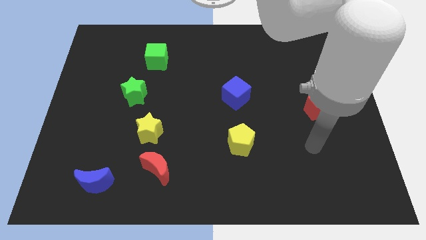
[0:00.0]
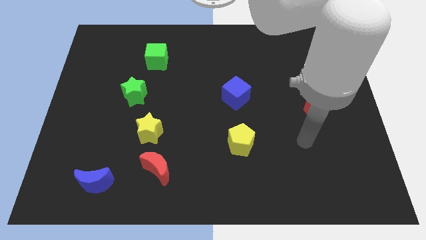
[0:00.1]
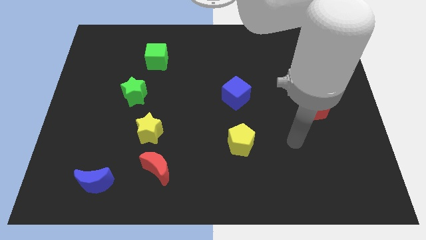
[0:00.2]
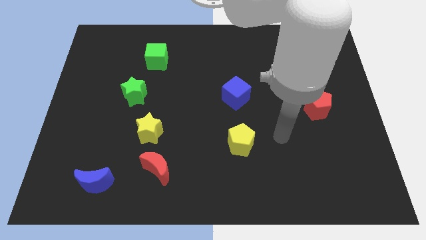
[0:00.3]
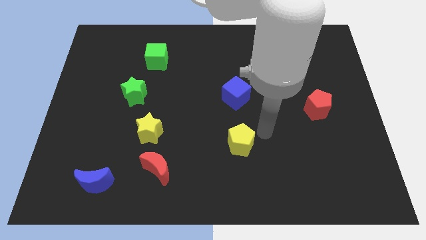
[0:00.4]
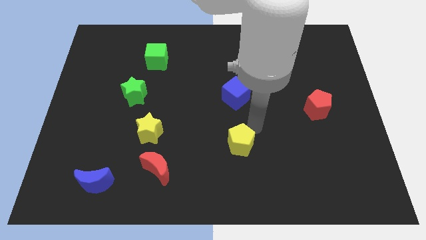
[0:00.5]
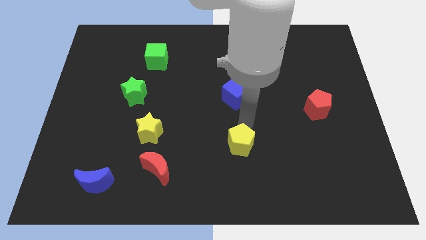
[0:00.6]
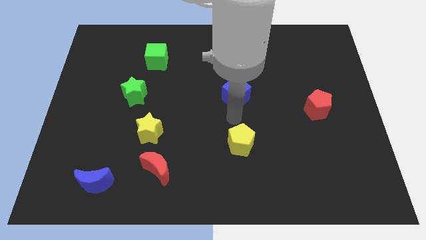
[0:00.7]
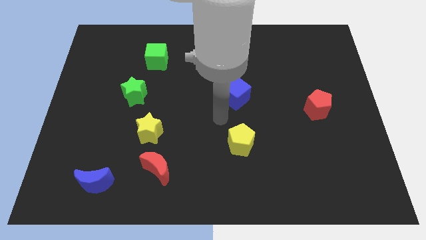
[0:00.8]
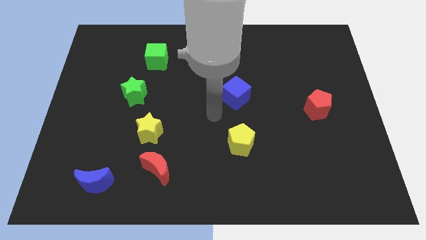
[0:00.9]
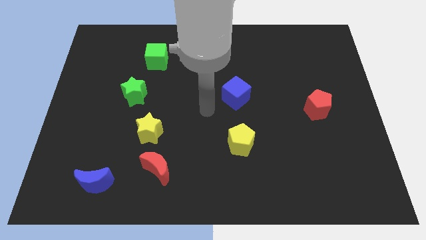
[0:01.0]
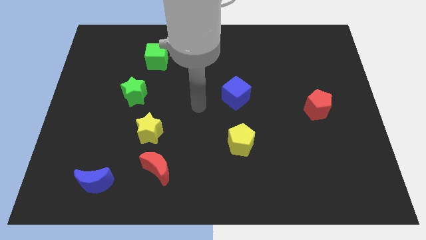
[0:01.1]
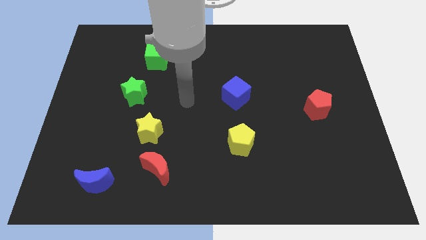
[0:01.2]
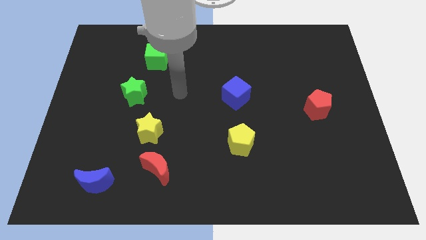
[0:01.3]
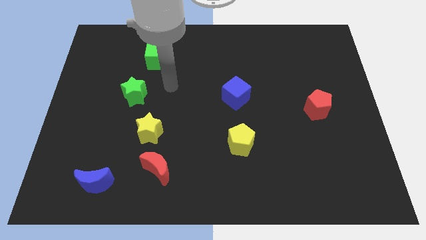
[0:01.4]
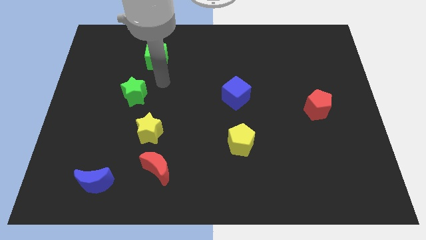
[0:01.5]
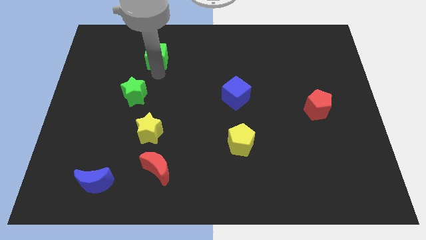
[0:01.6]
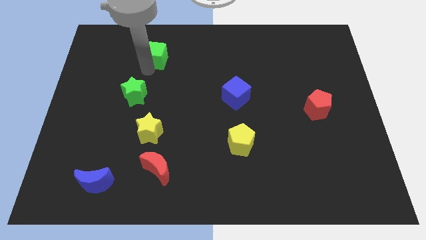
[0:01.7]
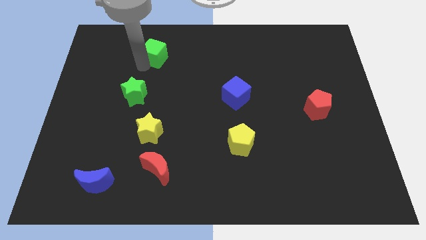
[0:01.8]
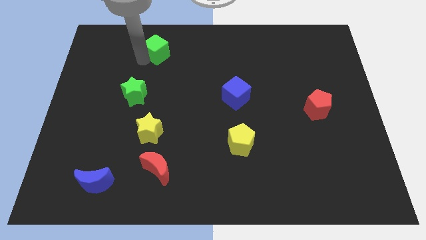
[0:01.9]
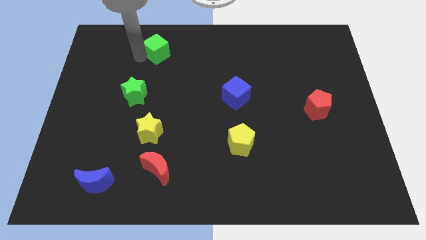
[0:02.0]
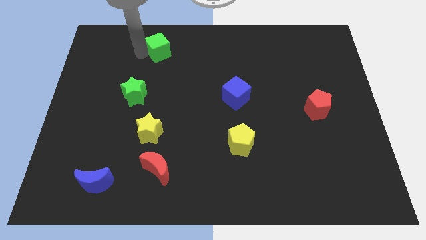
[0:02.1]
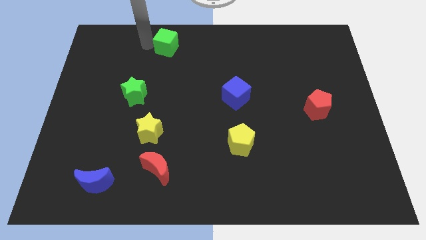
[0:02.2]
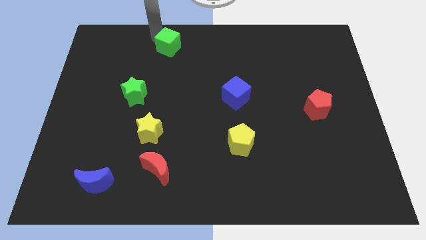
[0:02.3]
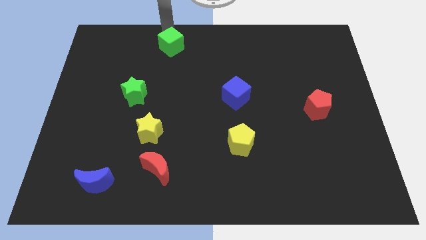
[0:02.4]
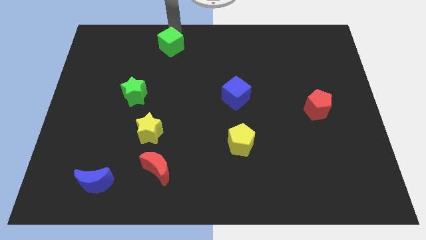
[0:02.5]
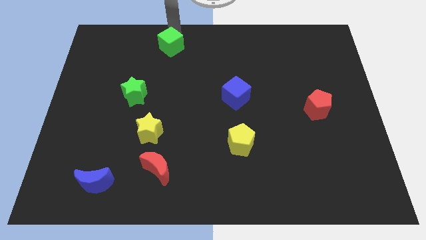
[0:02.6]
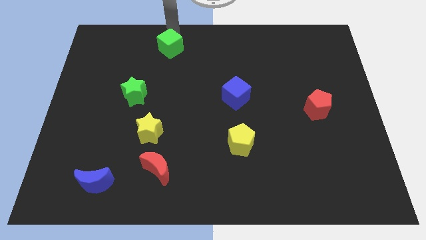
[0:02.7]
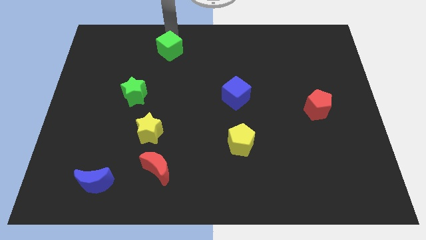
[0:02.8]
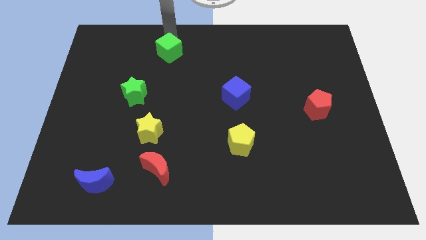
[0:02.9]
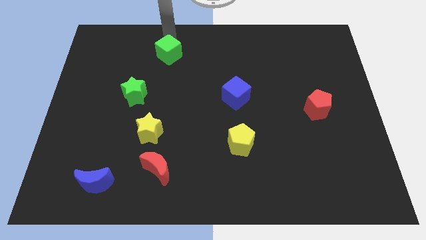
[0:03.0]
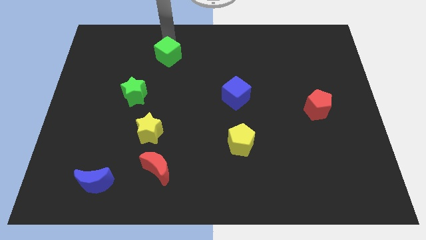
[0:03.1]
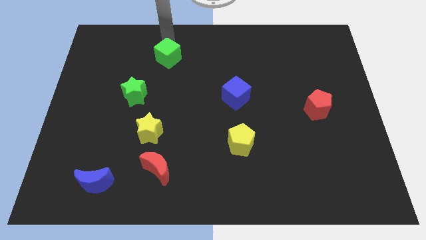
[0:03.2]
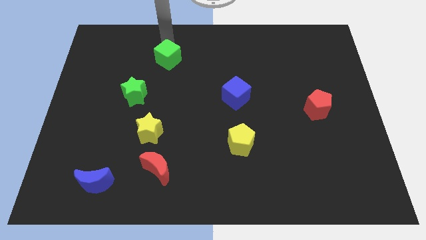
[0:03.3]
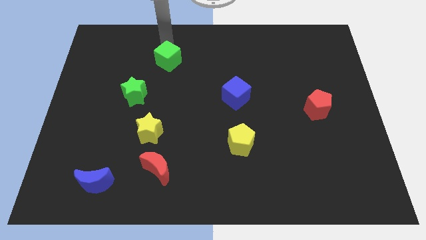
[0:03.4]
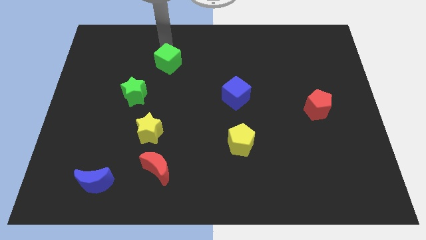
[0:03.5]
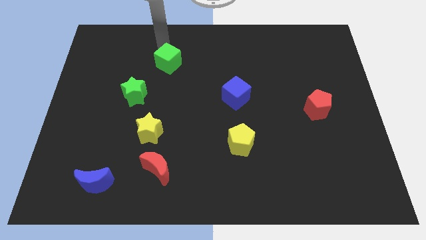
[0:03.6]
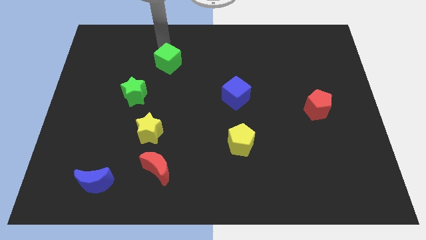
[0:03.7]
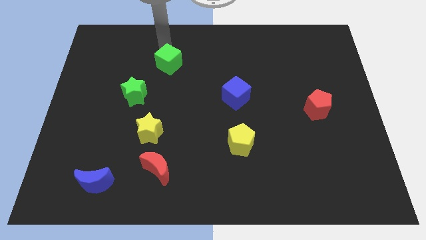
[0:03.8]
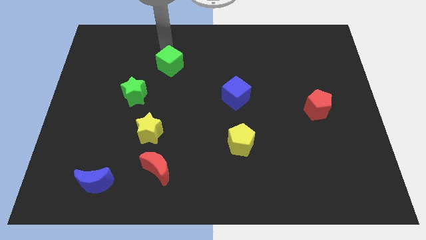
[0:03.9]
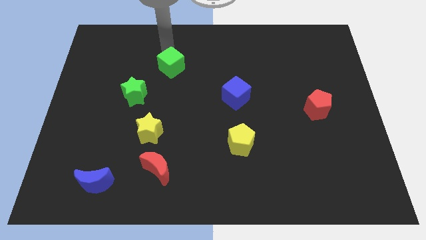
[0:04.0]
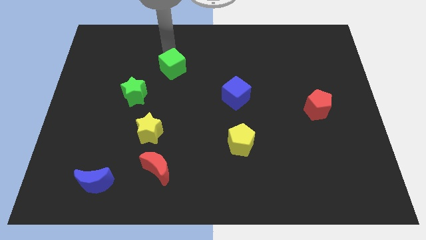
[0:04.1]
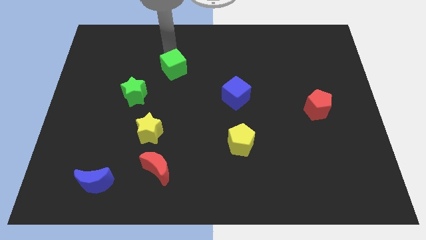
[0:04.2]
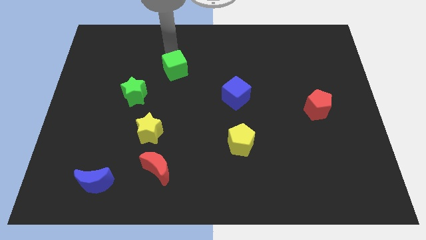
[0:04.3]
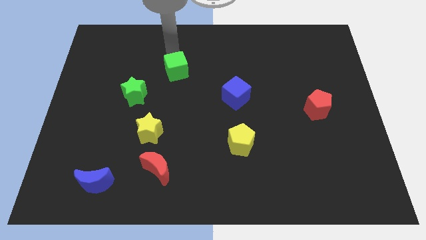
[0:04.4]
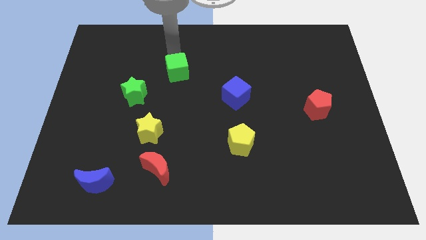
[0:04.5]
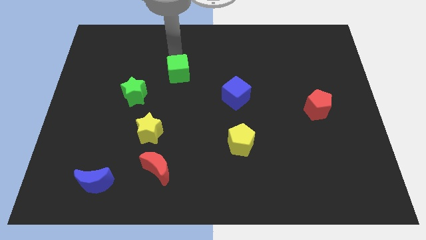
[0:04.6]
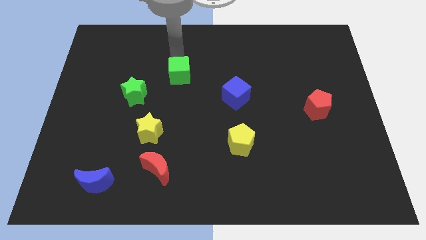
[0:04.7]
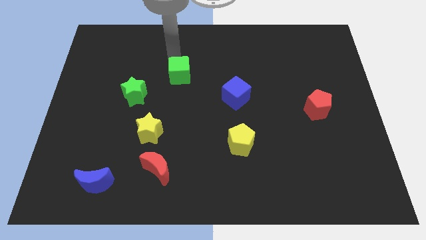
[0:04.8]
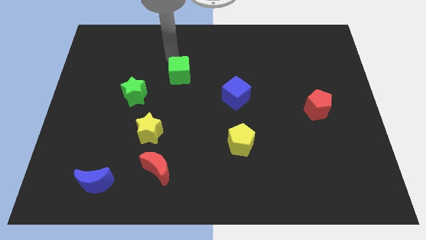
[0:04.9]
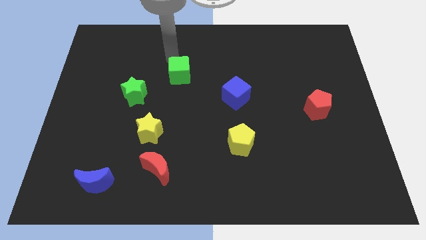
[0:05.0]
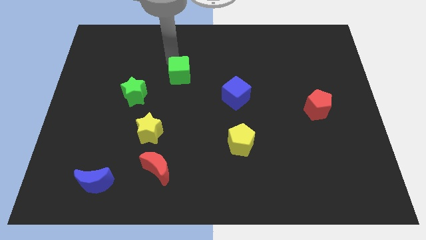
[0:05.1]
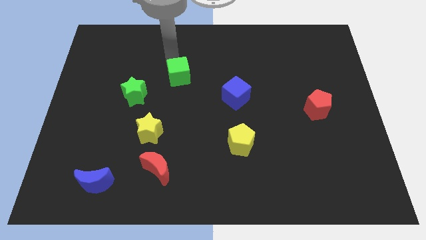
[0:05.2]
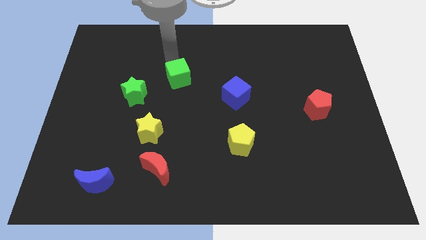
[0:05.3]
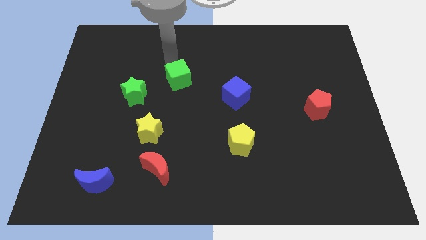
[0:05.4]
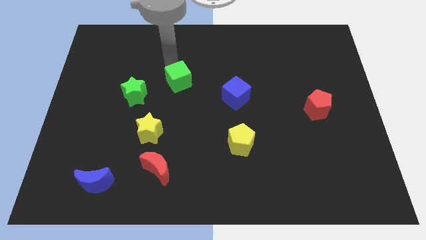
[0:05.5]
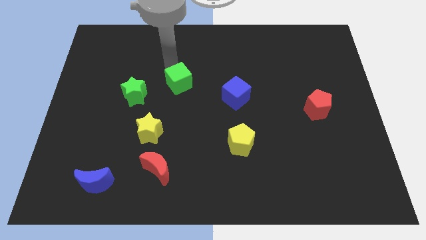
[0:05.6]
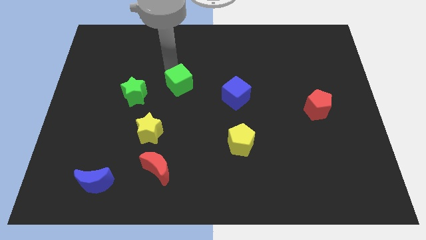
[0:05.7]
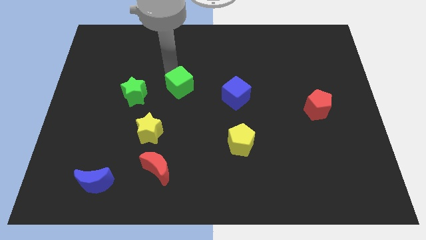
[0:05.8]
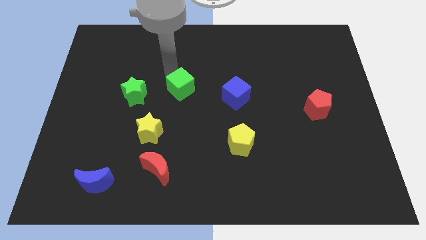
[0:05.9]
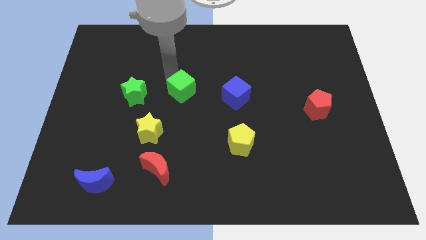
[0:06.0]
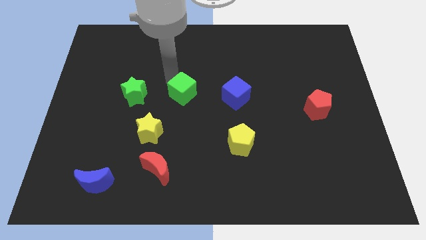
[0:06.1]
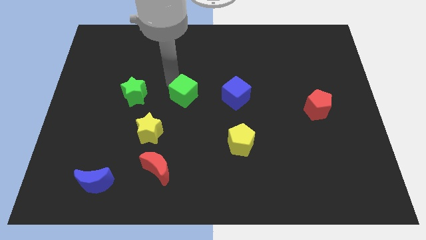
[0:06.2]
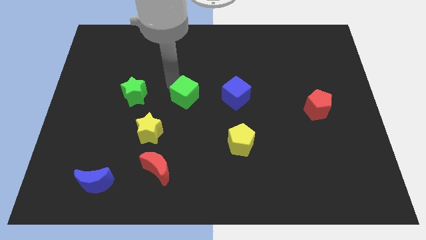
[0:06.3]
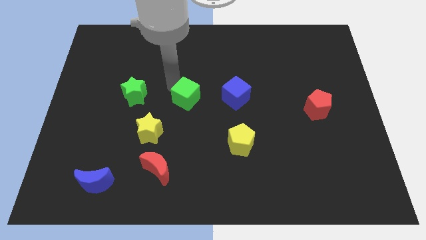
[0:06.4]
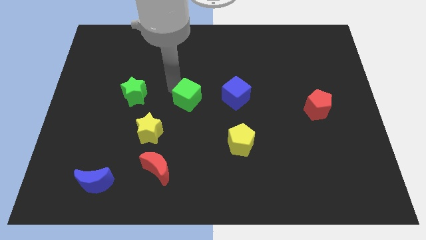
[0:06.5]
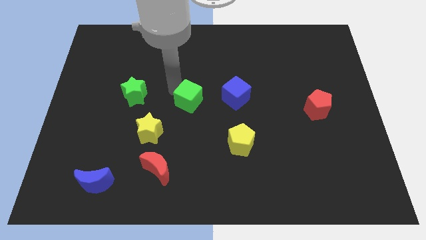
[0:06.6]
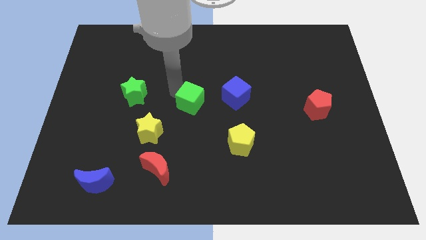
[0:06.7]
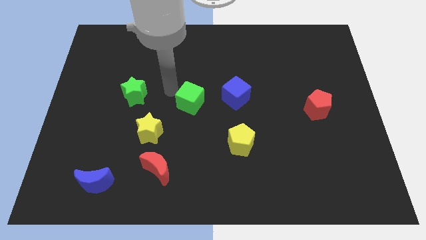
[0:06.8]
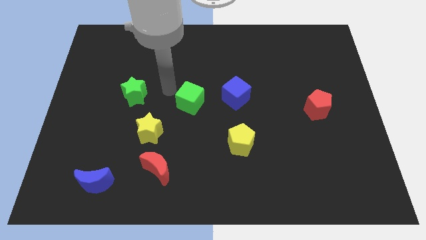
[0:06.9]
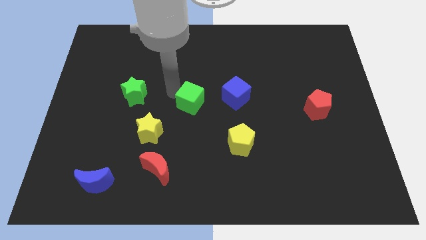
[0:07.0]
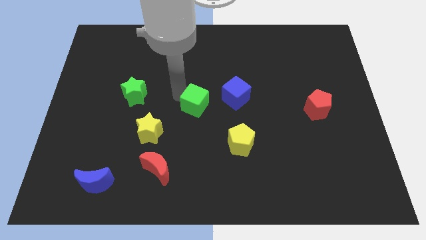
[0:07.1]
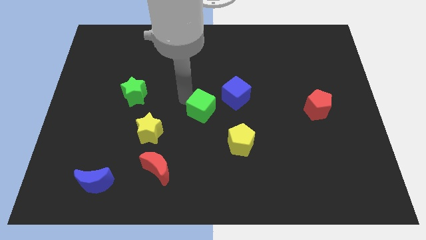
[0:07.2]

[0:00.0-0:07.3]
put the green cube to the bottom left side of the blue cube
